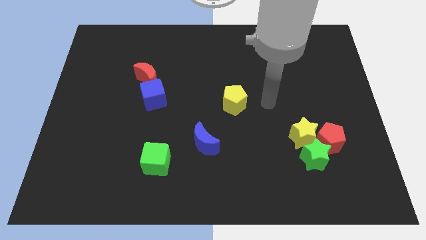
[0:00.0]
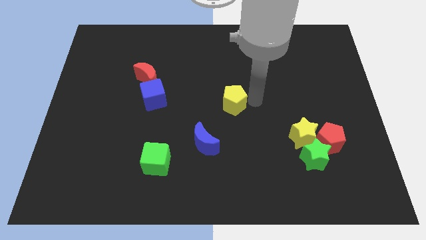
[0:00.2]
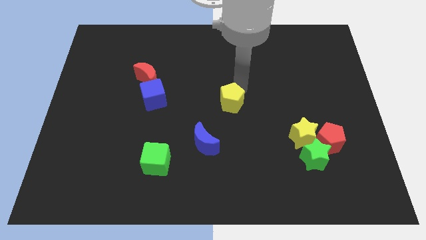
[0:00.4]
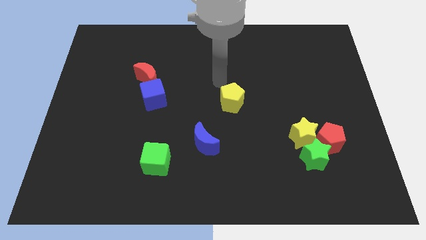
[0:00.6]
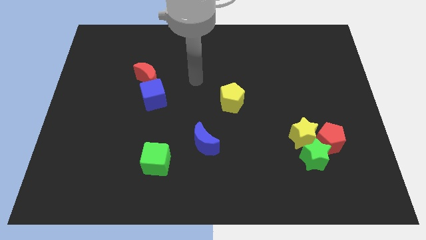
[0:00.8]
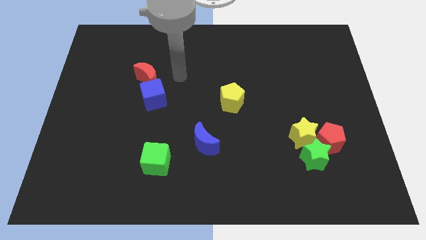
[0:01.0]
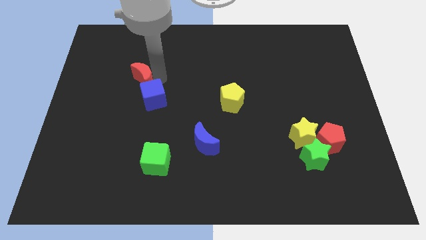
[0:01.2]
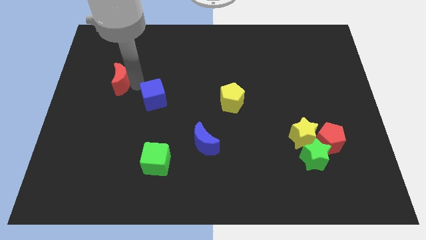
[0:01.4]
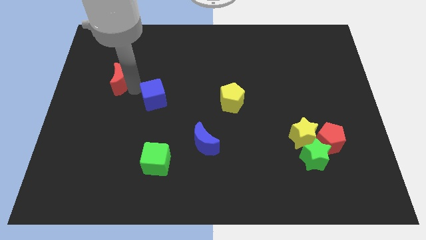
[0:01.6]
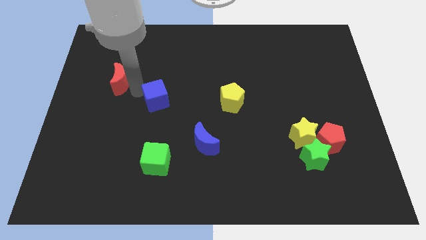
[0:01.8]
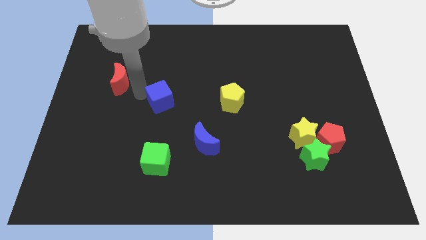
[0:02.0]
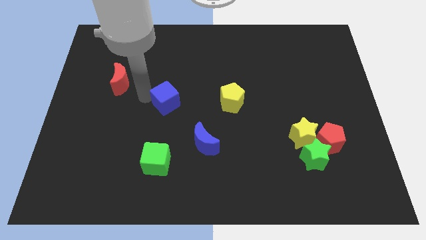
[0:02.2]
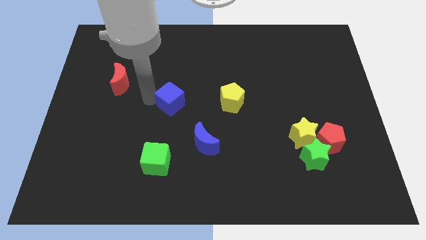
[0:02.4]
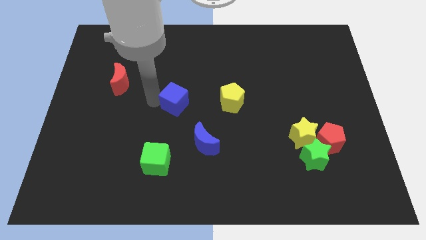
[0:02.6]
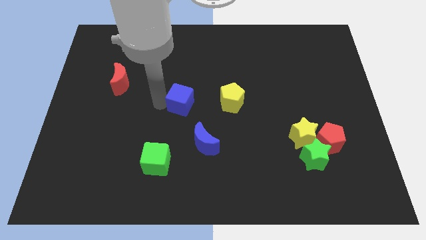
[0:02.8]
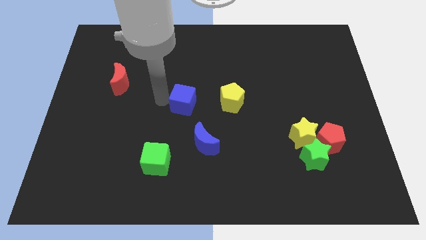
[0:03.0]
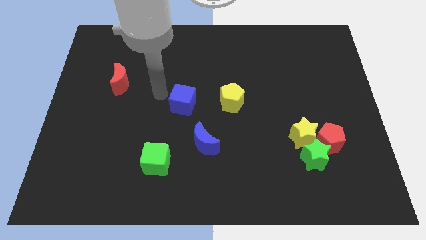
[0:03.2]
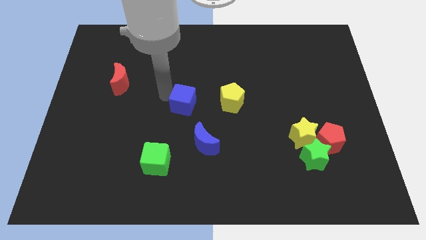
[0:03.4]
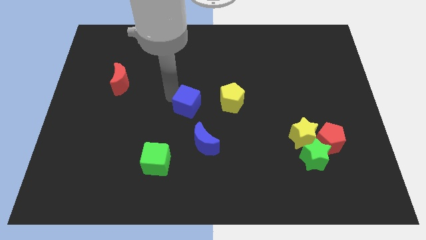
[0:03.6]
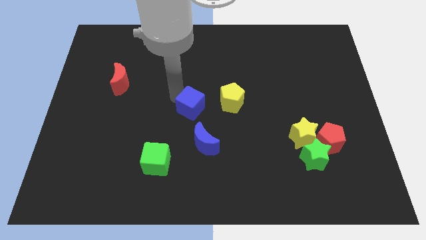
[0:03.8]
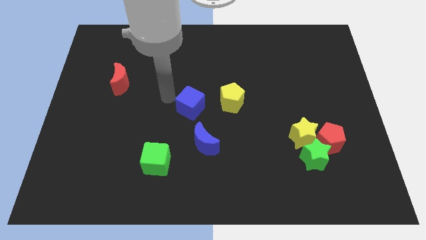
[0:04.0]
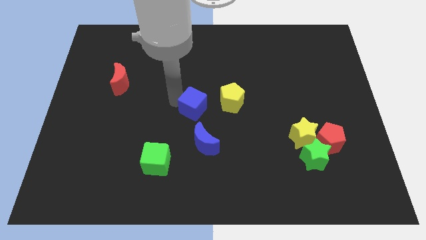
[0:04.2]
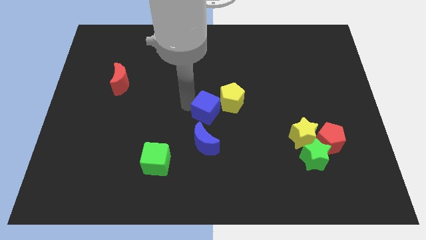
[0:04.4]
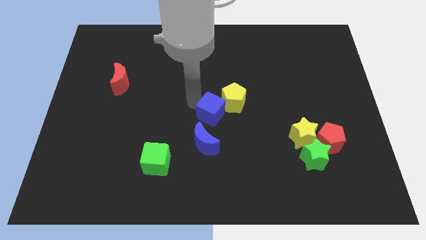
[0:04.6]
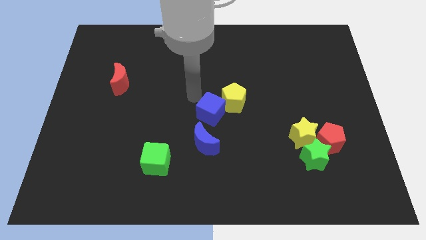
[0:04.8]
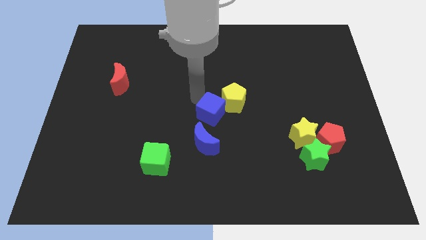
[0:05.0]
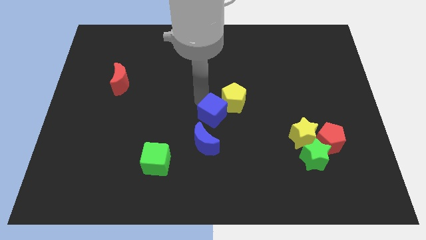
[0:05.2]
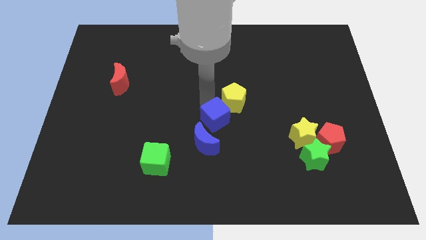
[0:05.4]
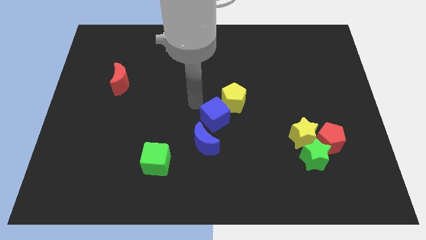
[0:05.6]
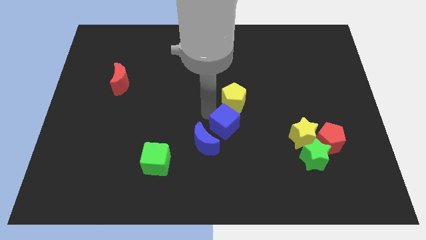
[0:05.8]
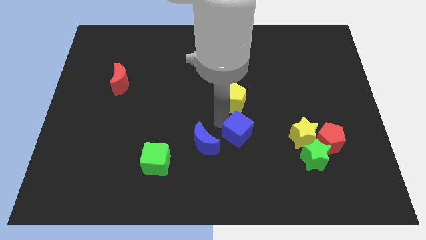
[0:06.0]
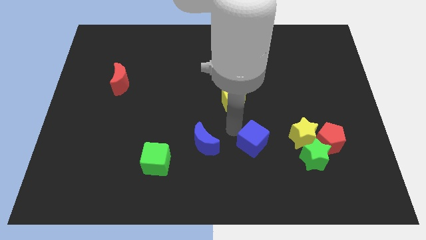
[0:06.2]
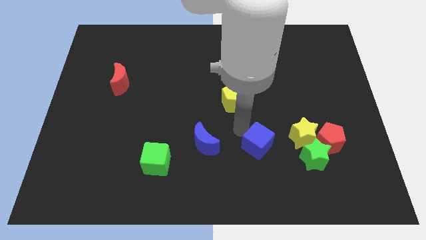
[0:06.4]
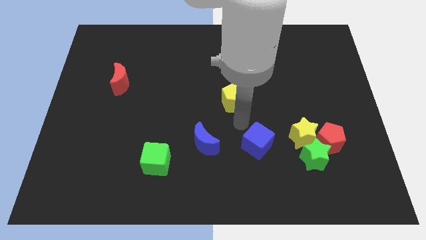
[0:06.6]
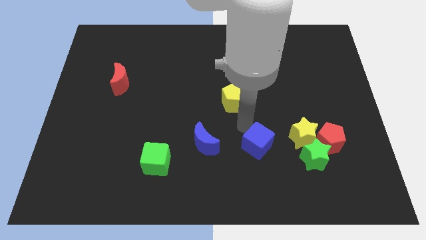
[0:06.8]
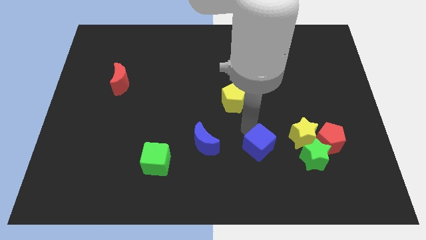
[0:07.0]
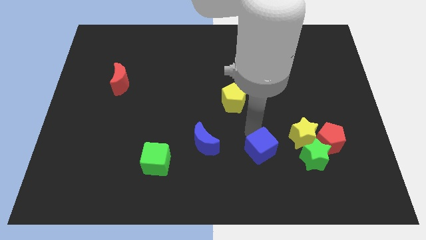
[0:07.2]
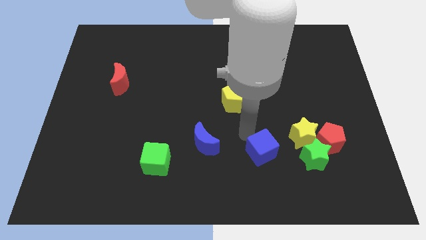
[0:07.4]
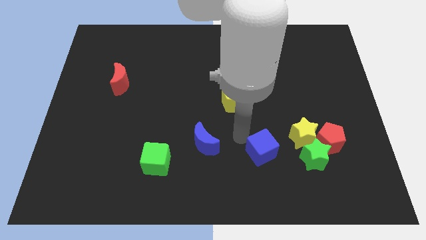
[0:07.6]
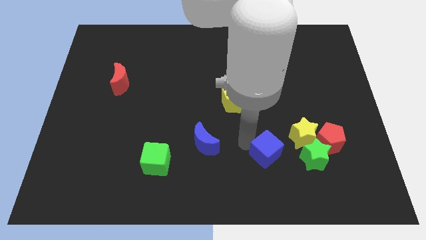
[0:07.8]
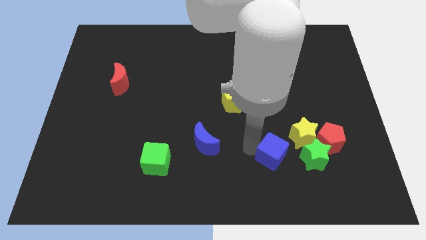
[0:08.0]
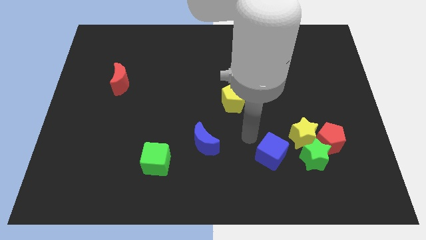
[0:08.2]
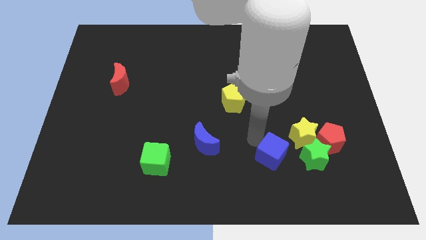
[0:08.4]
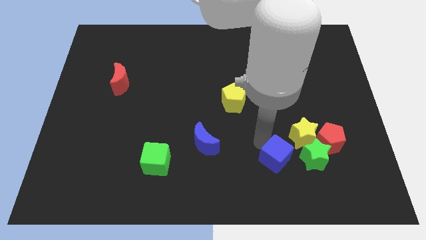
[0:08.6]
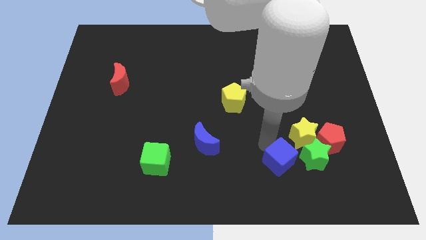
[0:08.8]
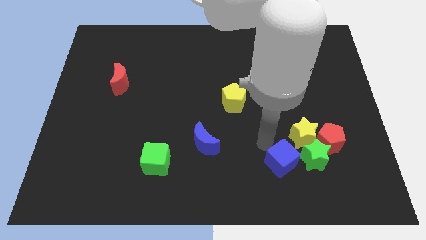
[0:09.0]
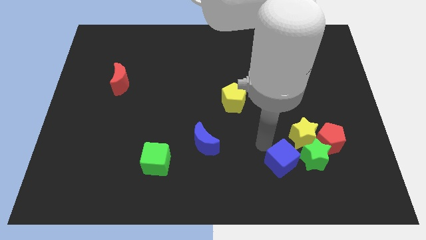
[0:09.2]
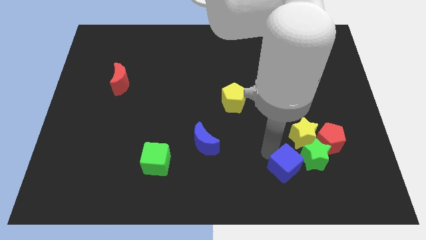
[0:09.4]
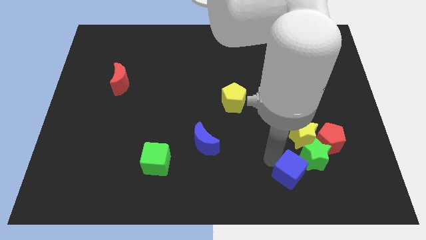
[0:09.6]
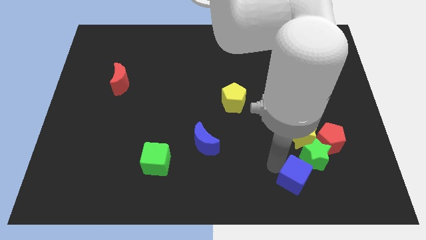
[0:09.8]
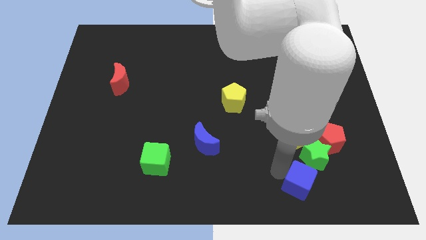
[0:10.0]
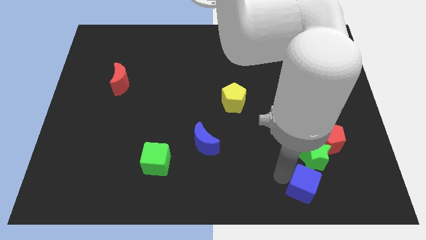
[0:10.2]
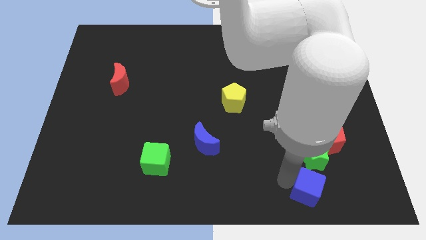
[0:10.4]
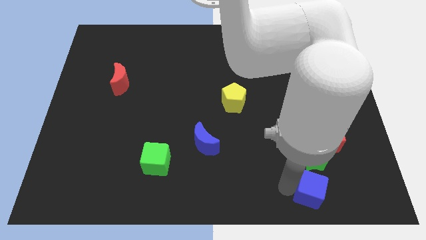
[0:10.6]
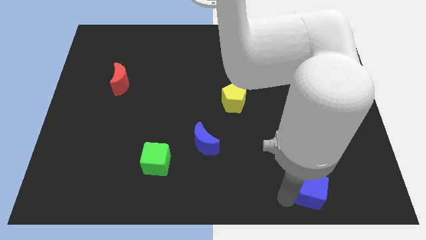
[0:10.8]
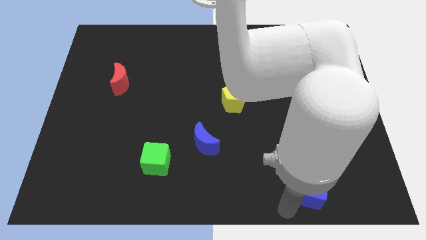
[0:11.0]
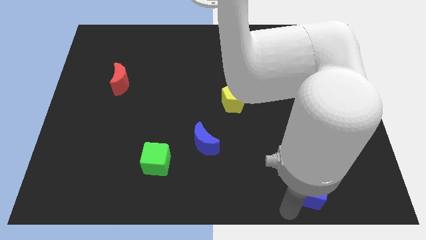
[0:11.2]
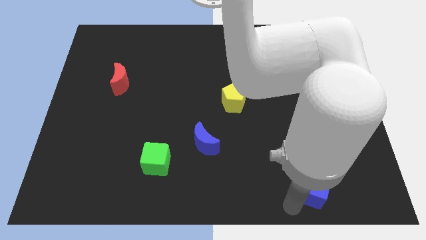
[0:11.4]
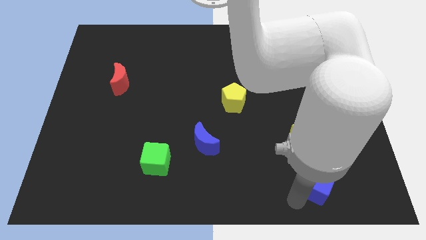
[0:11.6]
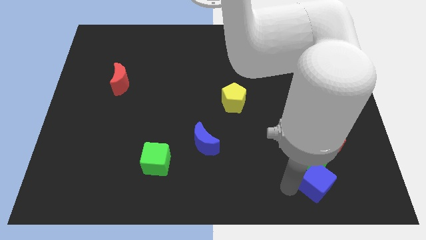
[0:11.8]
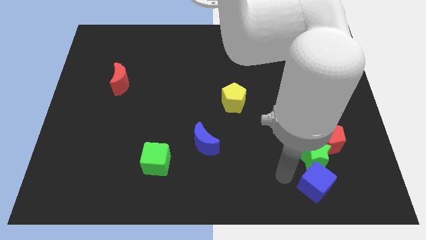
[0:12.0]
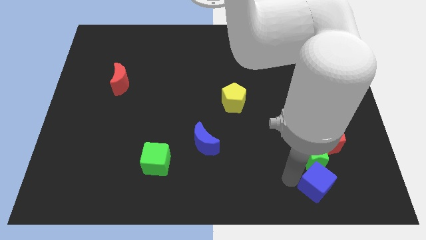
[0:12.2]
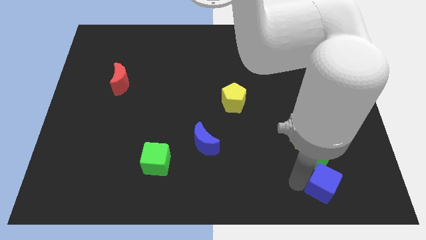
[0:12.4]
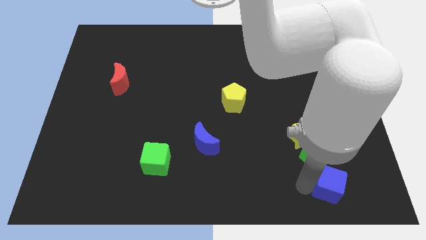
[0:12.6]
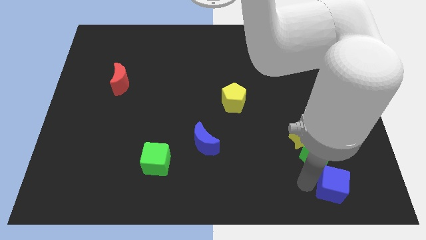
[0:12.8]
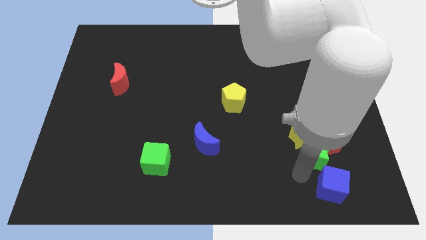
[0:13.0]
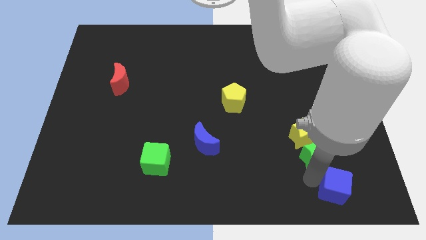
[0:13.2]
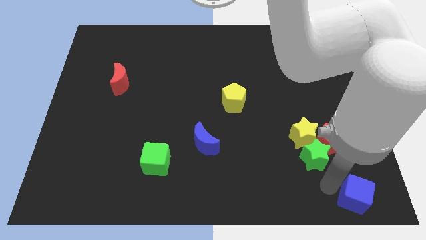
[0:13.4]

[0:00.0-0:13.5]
slide the blue cube to the bottom right of the board
